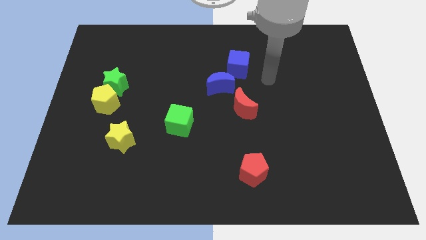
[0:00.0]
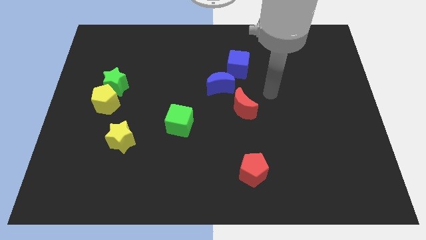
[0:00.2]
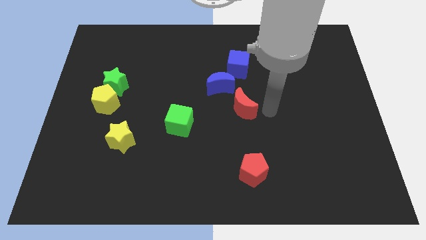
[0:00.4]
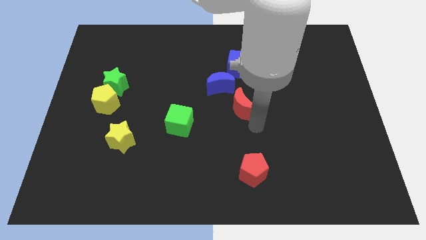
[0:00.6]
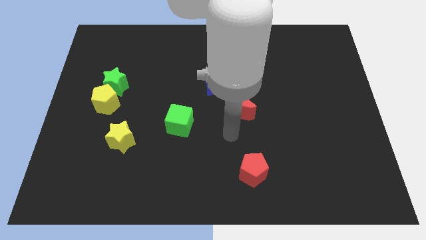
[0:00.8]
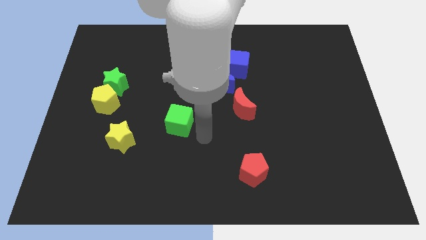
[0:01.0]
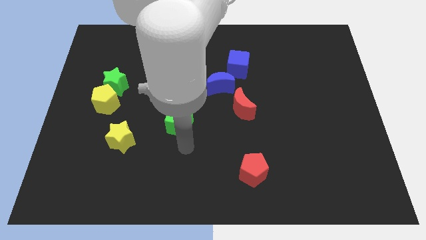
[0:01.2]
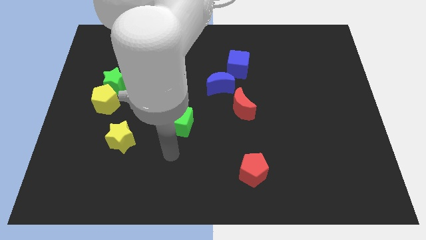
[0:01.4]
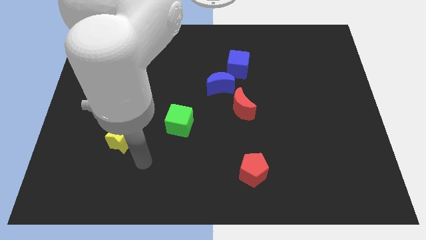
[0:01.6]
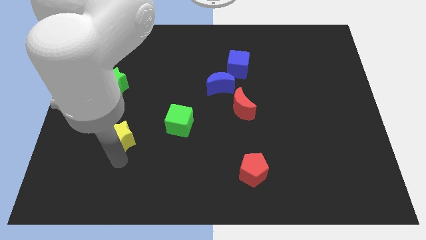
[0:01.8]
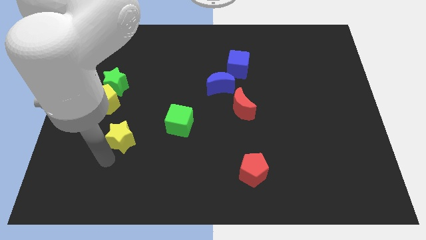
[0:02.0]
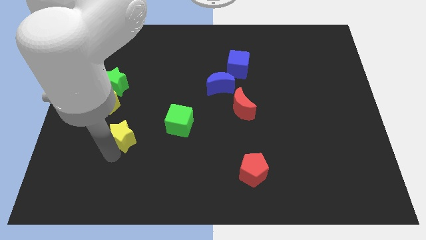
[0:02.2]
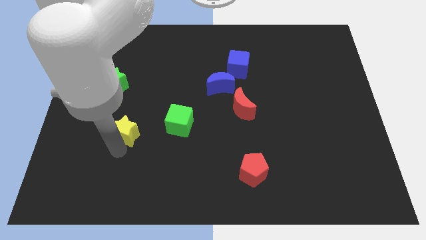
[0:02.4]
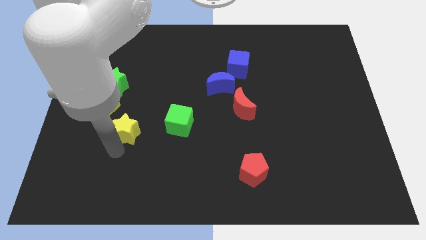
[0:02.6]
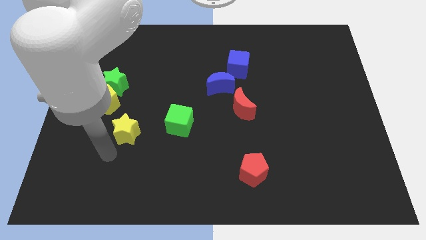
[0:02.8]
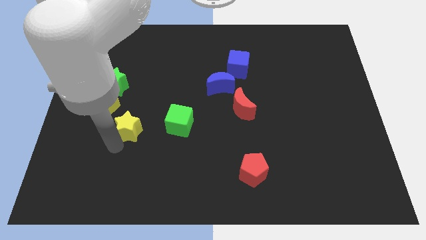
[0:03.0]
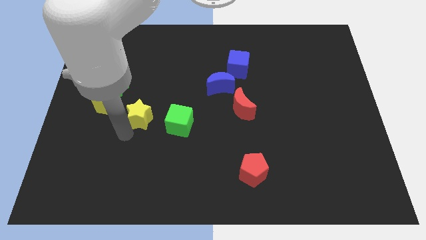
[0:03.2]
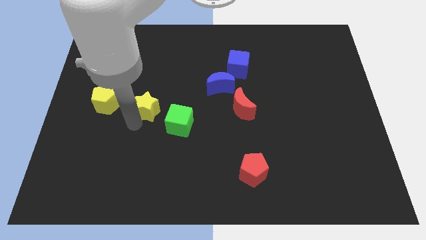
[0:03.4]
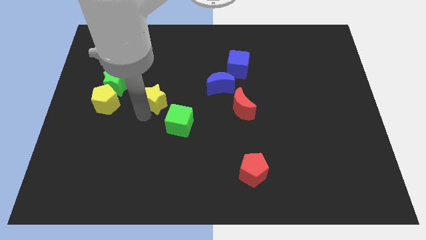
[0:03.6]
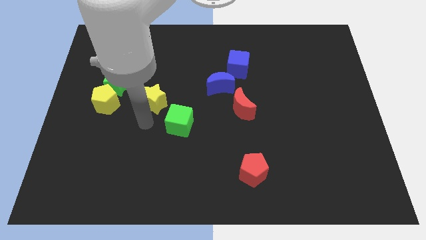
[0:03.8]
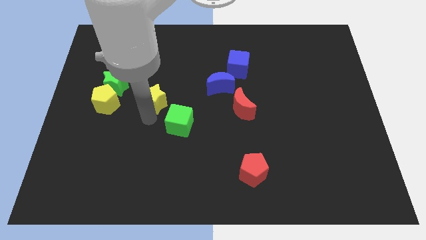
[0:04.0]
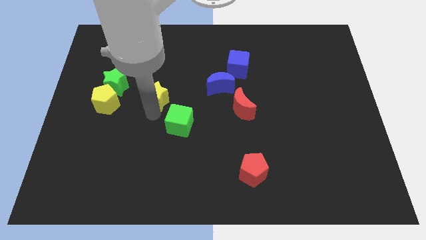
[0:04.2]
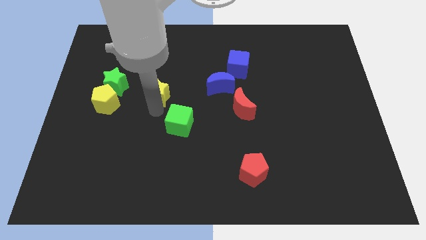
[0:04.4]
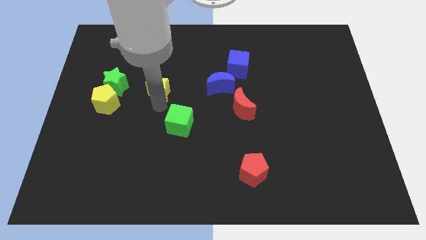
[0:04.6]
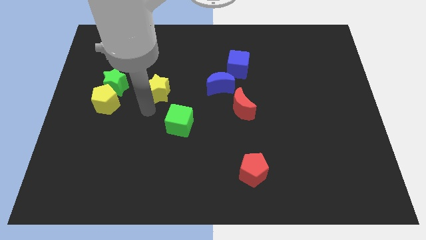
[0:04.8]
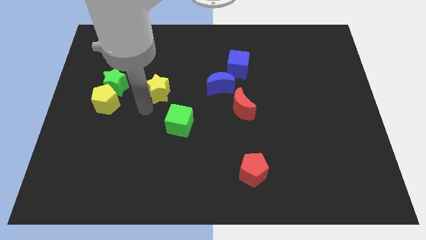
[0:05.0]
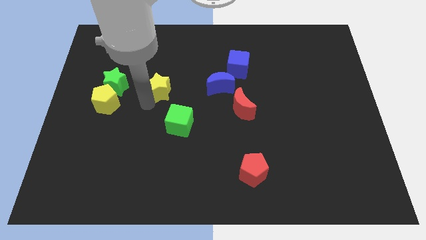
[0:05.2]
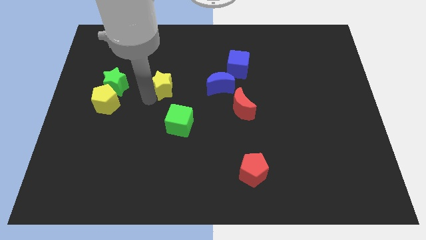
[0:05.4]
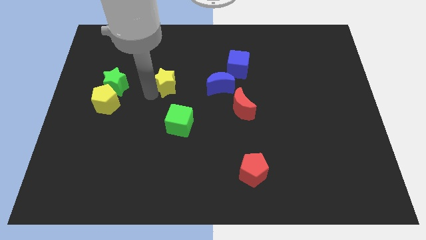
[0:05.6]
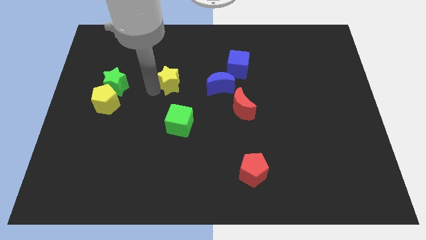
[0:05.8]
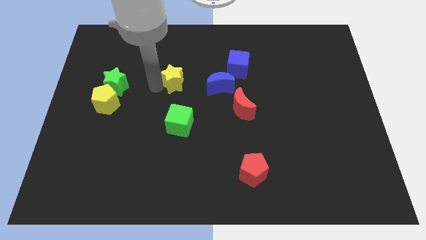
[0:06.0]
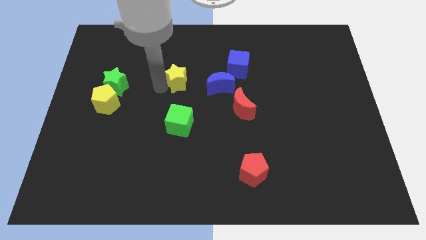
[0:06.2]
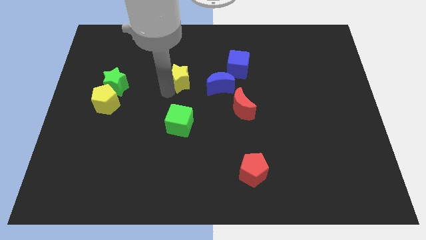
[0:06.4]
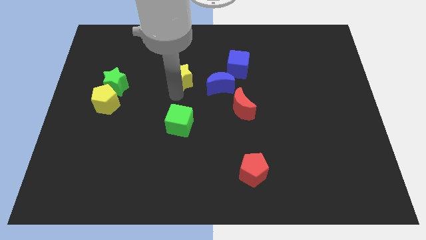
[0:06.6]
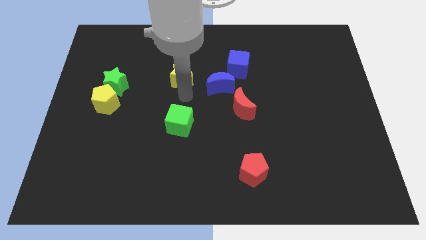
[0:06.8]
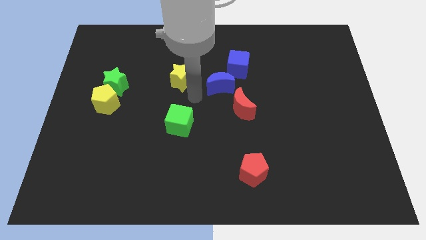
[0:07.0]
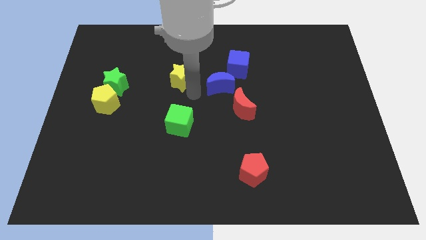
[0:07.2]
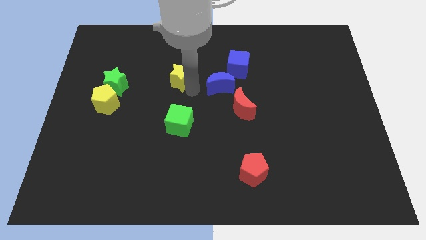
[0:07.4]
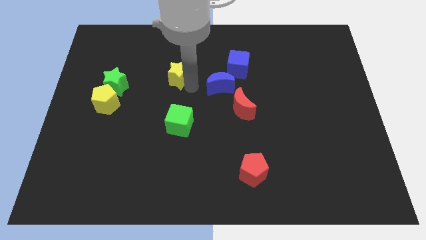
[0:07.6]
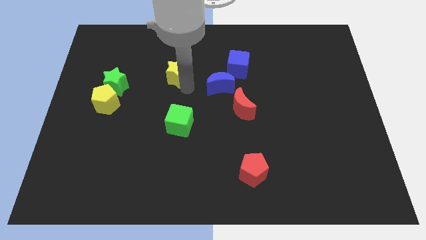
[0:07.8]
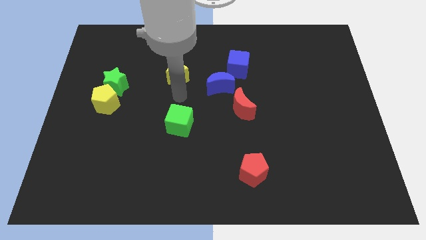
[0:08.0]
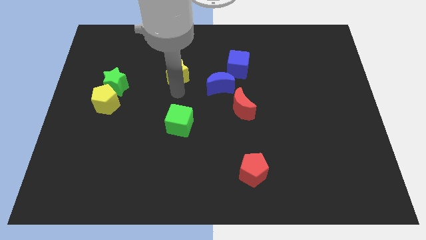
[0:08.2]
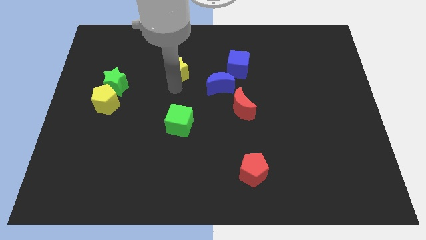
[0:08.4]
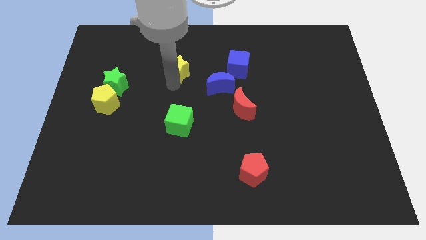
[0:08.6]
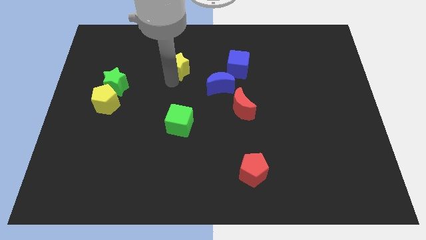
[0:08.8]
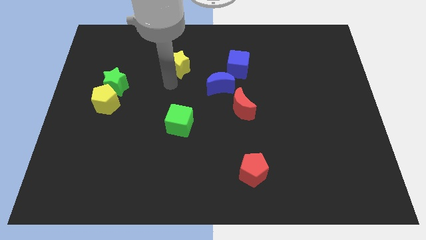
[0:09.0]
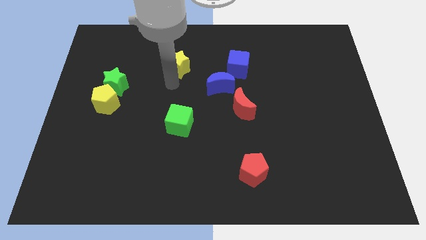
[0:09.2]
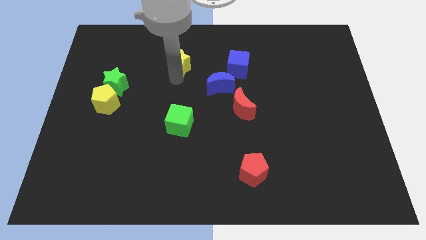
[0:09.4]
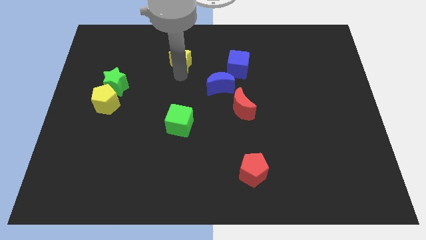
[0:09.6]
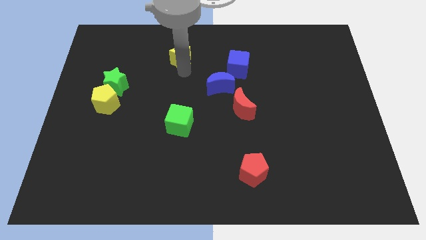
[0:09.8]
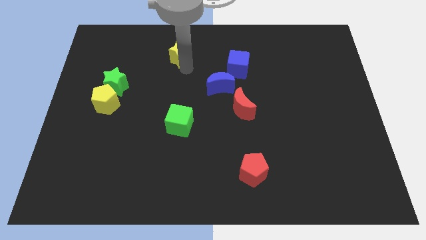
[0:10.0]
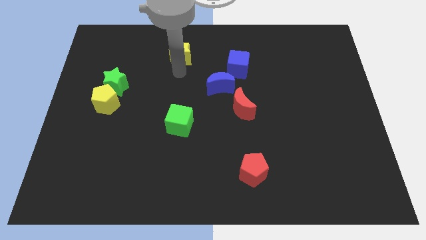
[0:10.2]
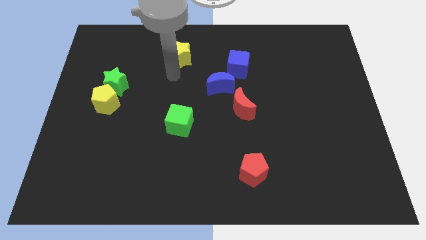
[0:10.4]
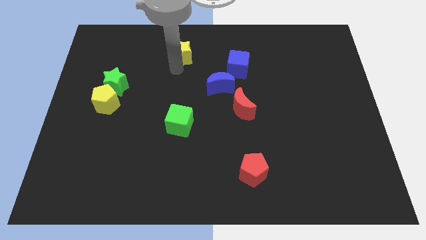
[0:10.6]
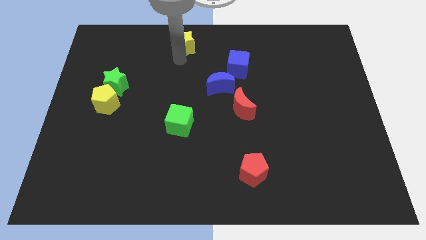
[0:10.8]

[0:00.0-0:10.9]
put the yellow star to the towards your base

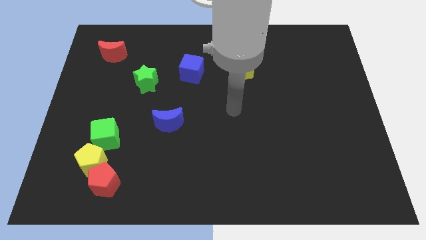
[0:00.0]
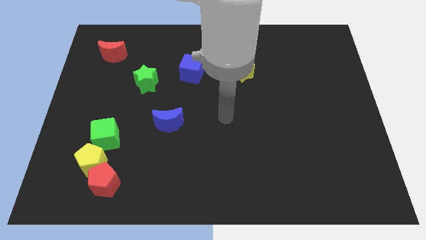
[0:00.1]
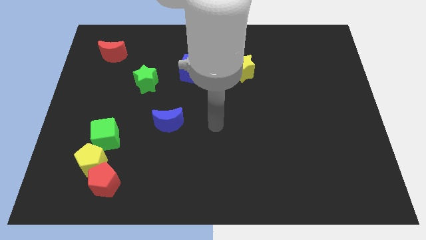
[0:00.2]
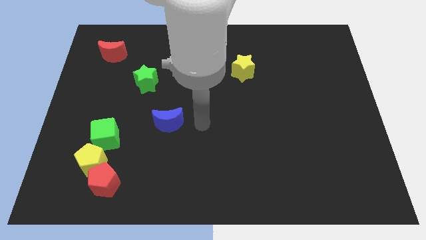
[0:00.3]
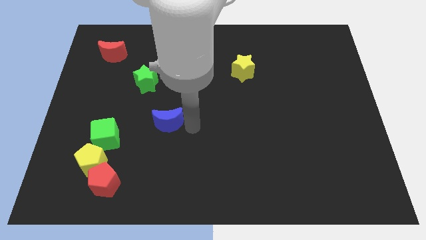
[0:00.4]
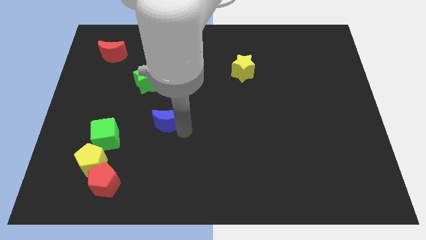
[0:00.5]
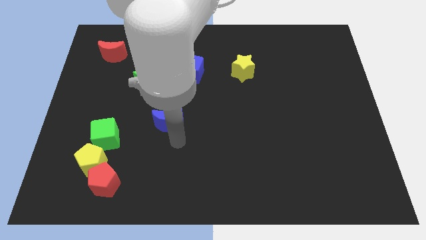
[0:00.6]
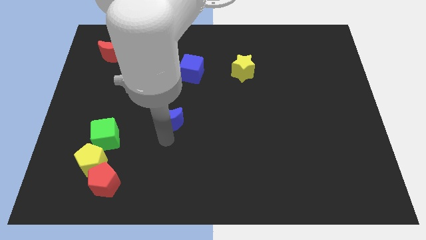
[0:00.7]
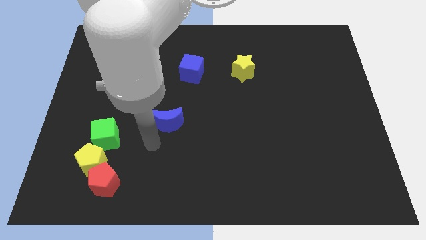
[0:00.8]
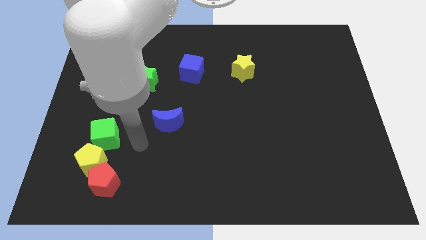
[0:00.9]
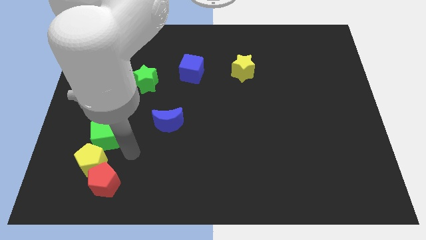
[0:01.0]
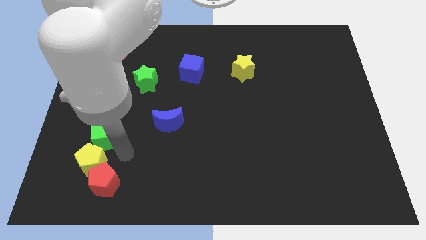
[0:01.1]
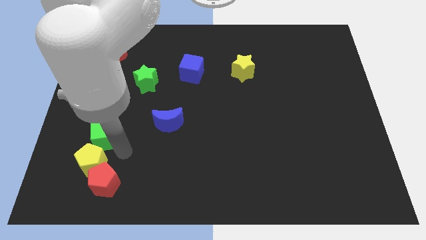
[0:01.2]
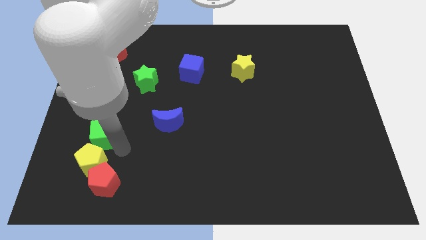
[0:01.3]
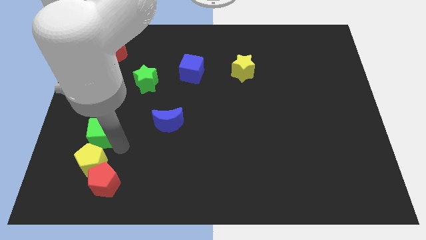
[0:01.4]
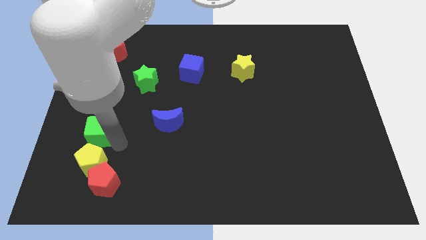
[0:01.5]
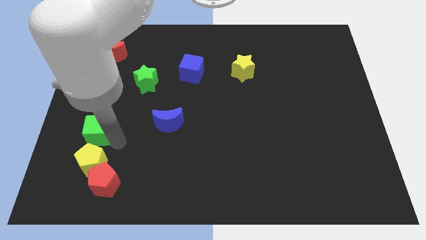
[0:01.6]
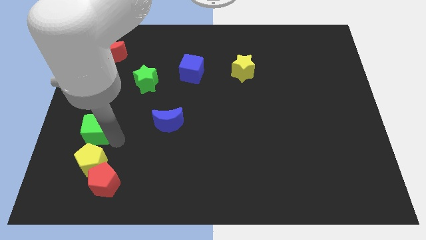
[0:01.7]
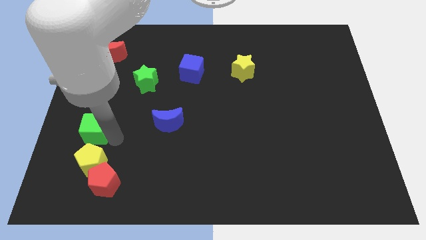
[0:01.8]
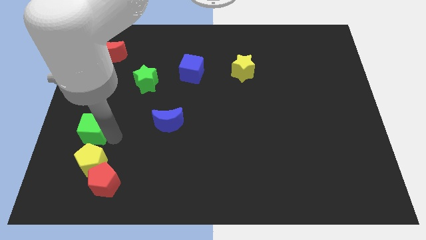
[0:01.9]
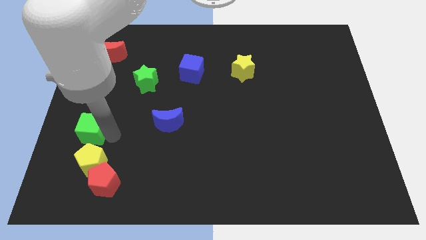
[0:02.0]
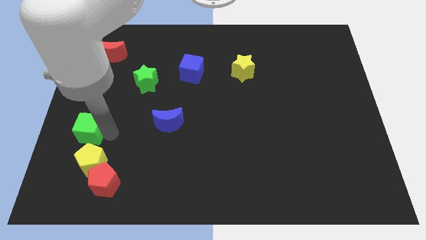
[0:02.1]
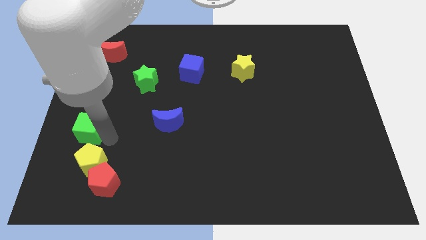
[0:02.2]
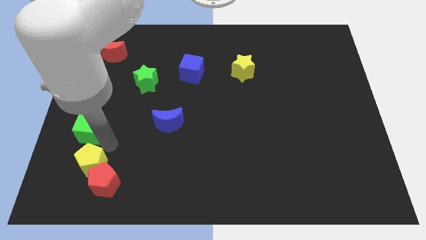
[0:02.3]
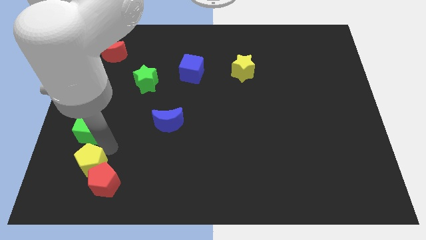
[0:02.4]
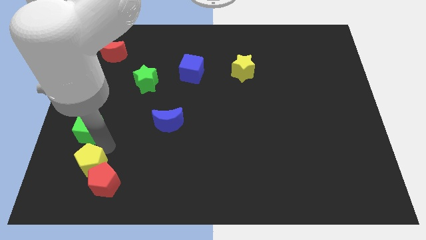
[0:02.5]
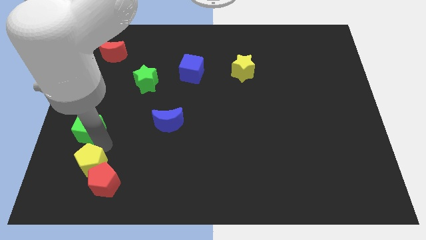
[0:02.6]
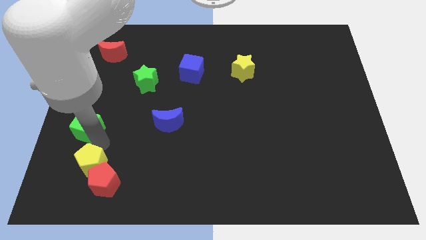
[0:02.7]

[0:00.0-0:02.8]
slide the green cube to the center left
